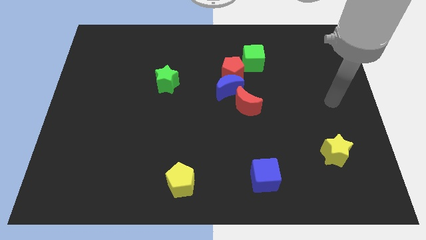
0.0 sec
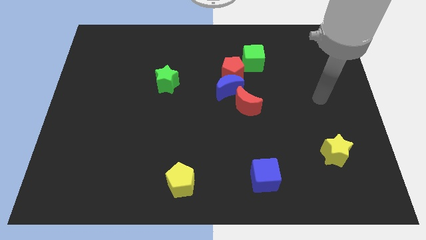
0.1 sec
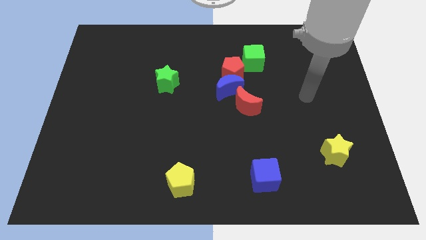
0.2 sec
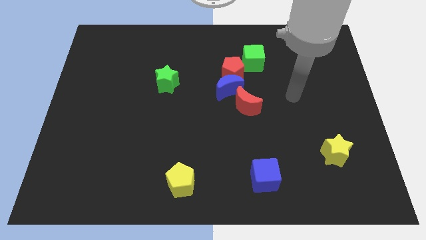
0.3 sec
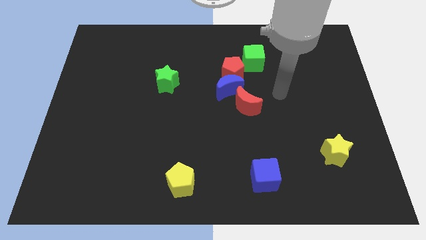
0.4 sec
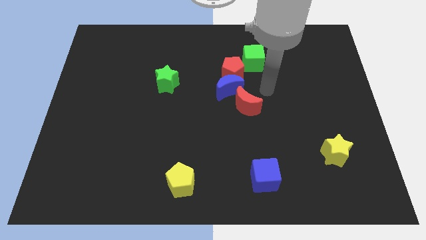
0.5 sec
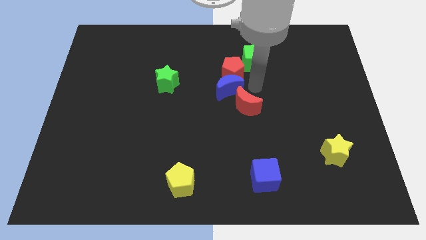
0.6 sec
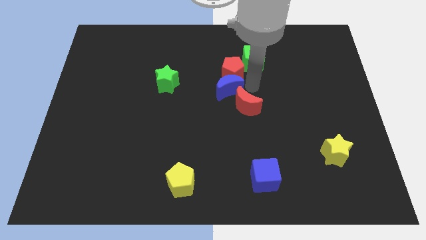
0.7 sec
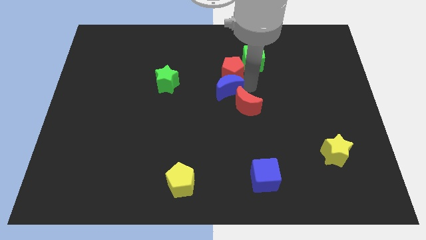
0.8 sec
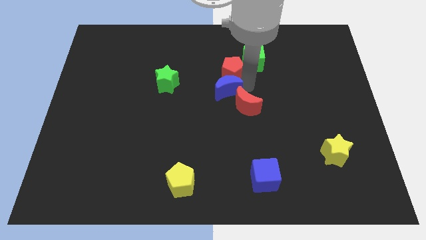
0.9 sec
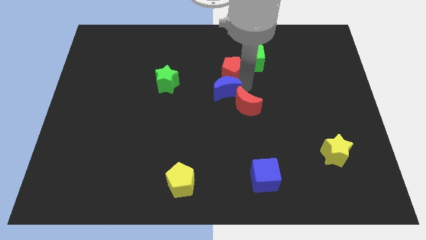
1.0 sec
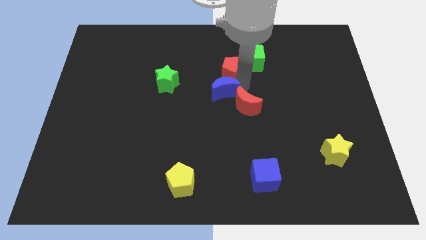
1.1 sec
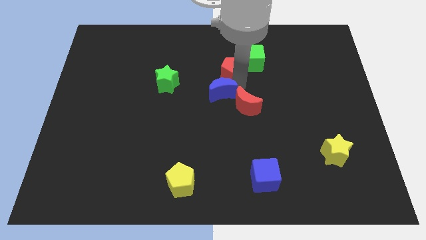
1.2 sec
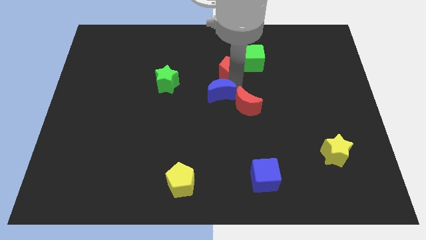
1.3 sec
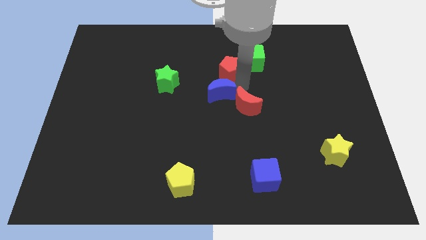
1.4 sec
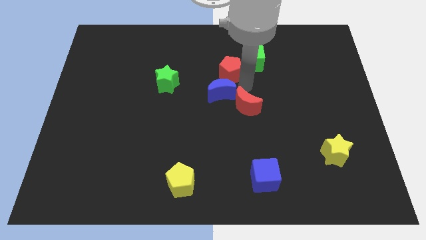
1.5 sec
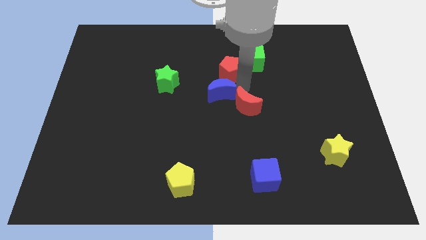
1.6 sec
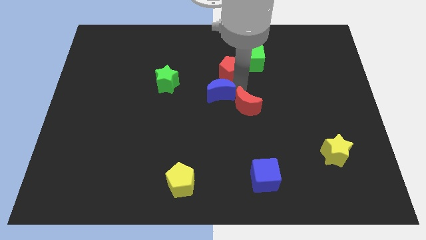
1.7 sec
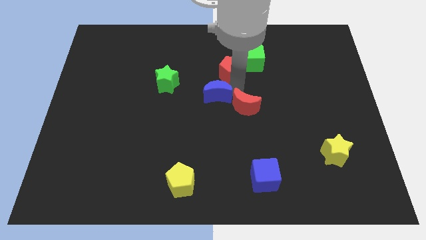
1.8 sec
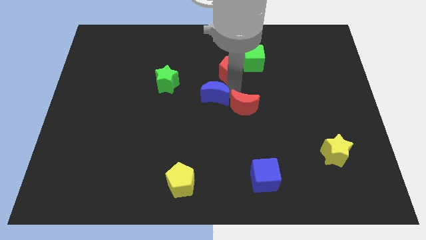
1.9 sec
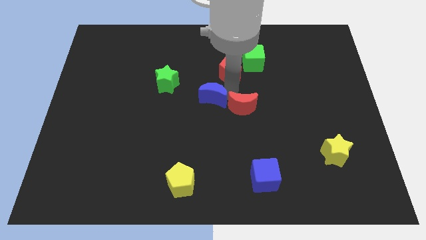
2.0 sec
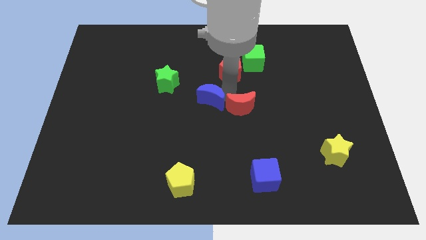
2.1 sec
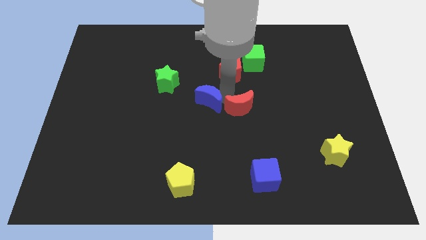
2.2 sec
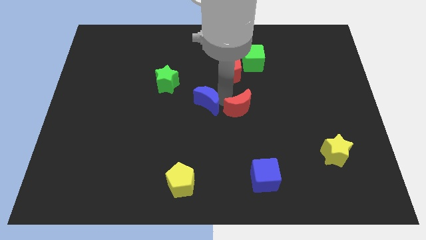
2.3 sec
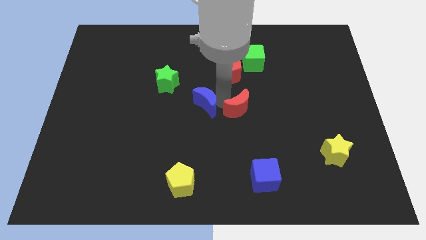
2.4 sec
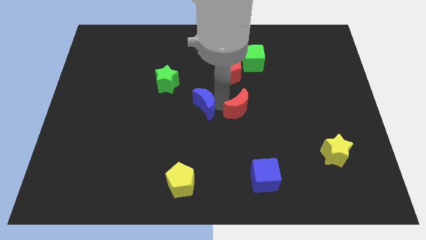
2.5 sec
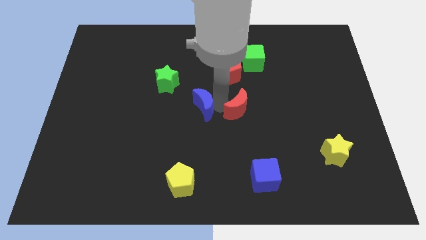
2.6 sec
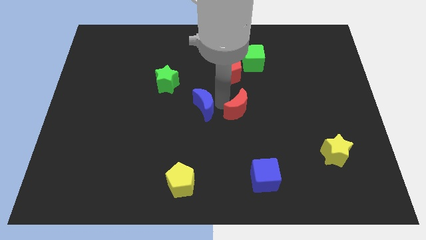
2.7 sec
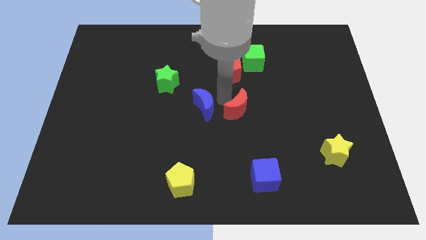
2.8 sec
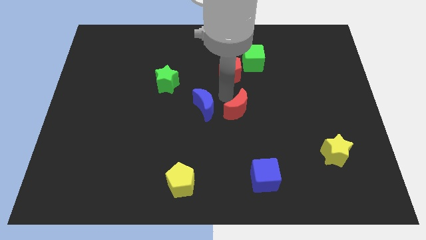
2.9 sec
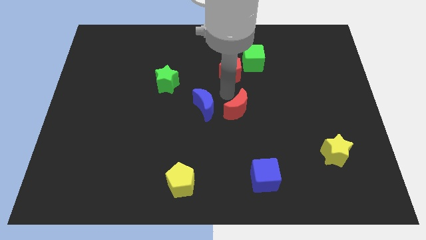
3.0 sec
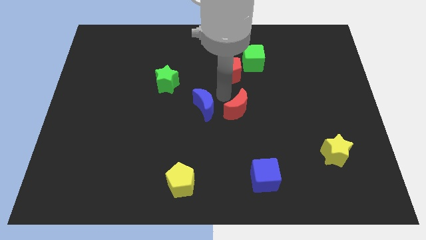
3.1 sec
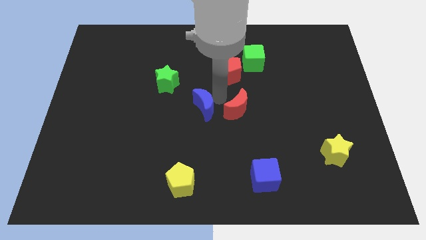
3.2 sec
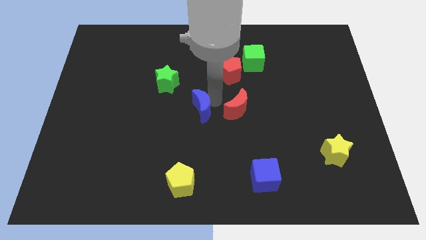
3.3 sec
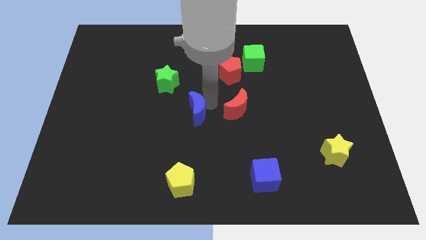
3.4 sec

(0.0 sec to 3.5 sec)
separate the blue moon from the red pentagon and red moon

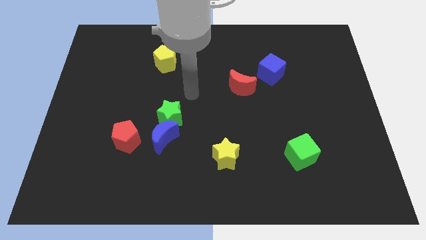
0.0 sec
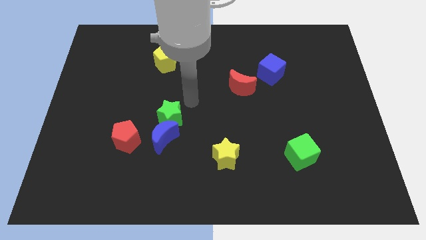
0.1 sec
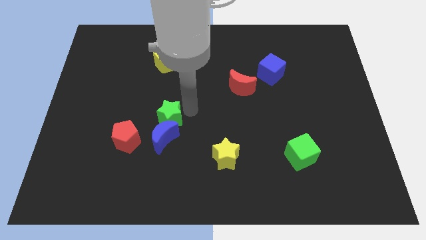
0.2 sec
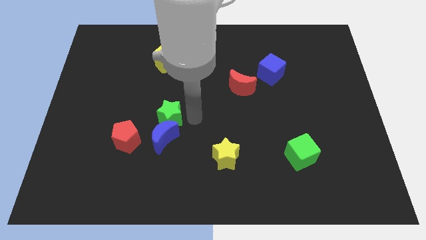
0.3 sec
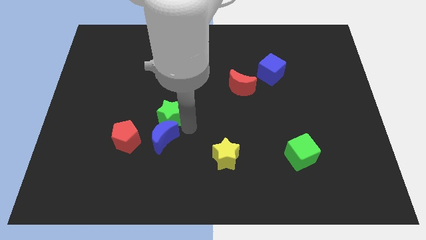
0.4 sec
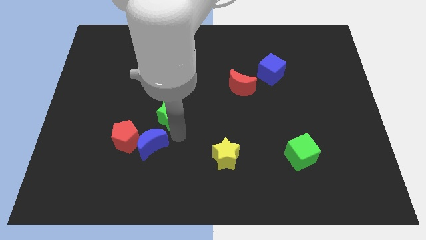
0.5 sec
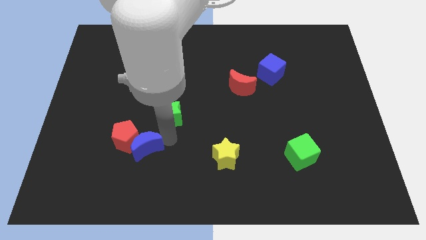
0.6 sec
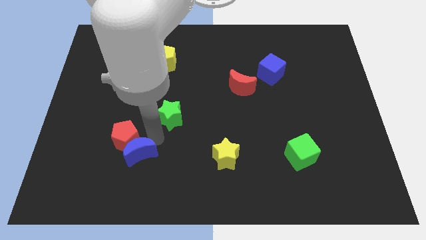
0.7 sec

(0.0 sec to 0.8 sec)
pull the green star apart from the blue moon

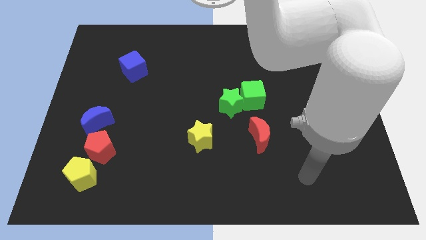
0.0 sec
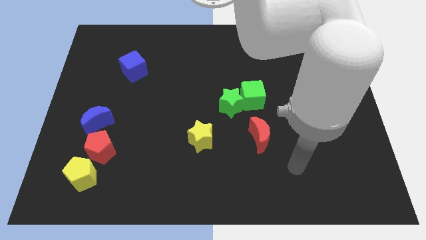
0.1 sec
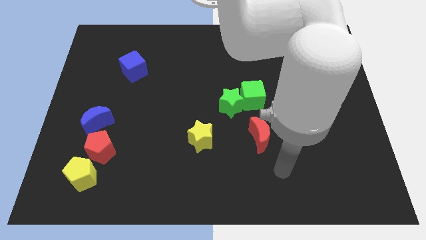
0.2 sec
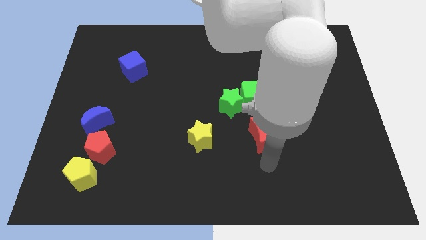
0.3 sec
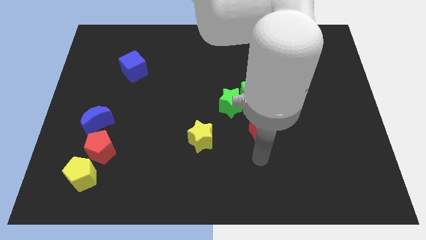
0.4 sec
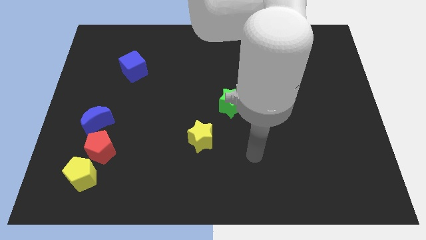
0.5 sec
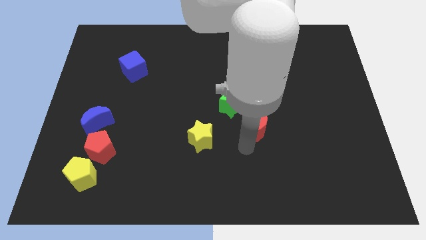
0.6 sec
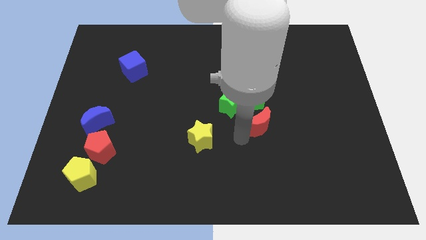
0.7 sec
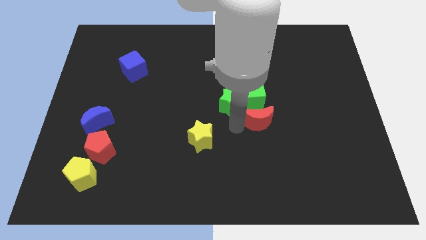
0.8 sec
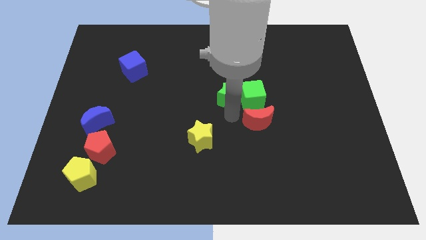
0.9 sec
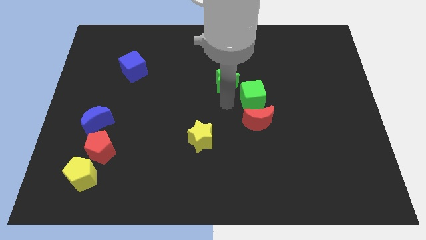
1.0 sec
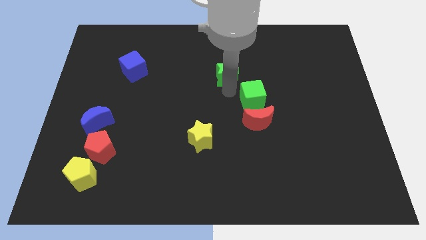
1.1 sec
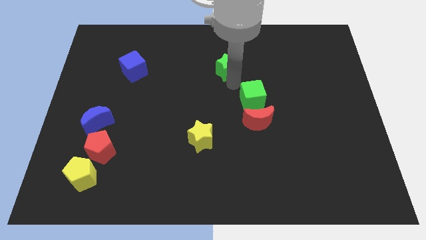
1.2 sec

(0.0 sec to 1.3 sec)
separate the green cube from the green star

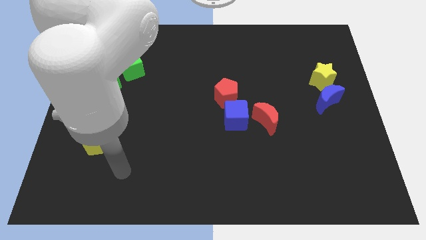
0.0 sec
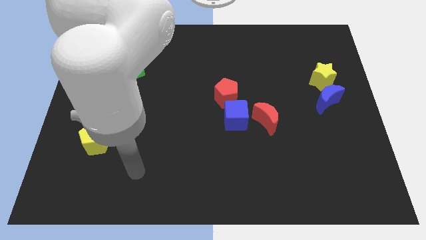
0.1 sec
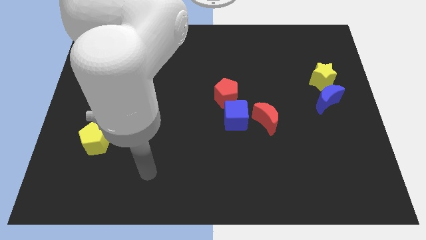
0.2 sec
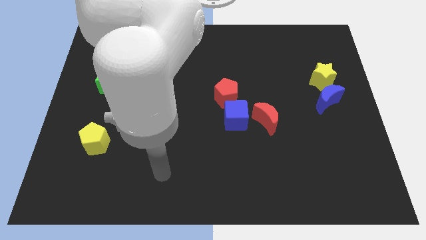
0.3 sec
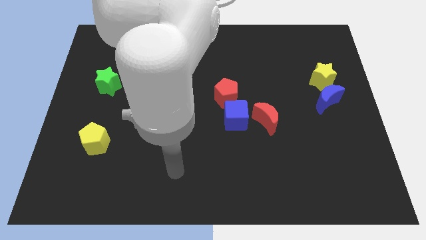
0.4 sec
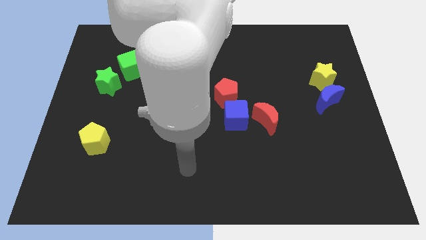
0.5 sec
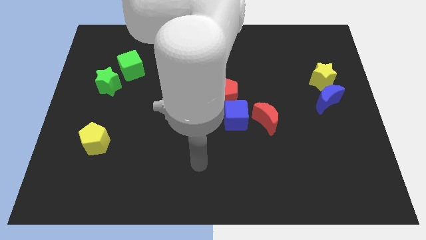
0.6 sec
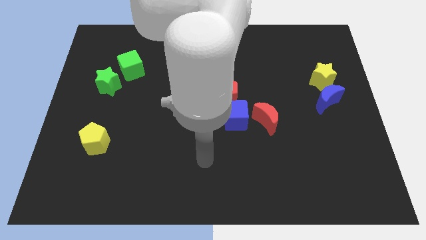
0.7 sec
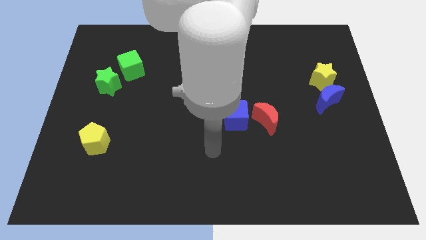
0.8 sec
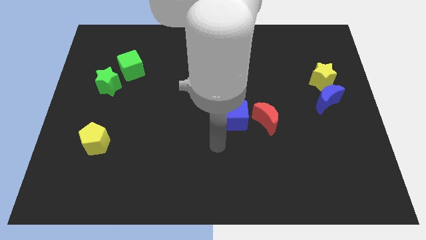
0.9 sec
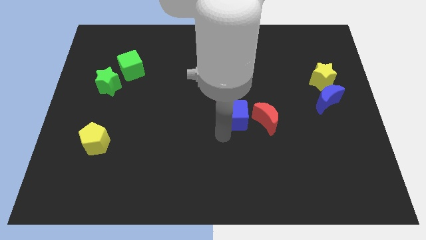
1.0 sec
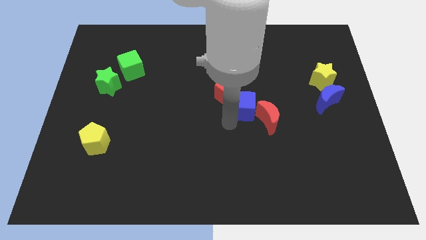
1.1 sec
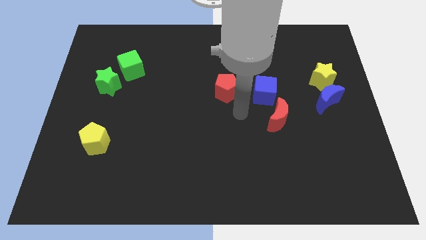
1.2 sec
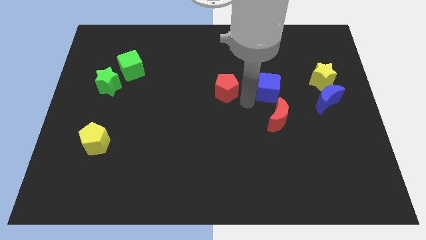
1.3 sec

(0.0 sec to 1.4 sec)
pull the red pentagon apart from the blue cube

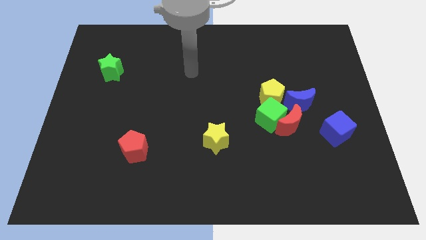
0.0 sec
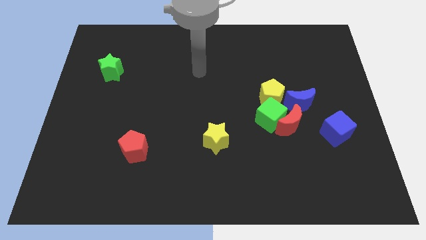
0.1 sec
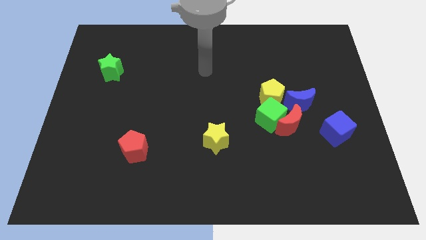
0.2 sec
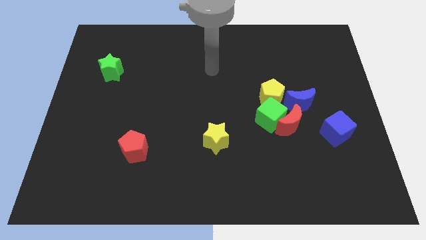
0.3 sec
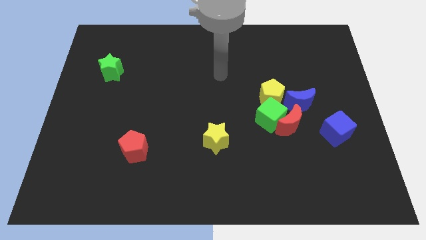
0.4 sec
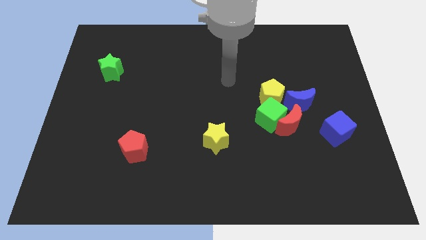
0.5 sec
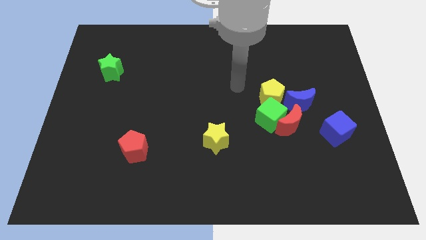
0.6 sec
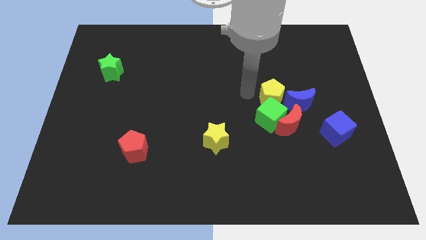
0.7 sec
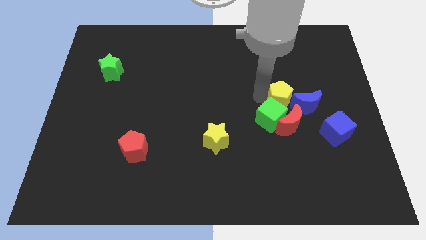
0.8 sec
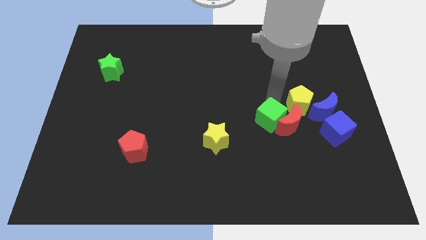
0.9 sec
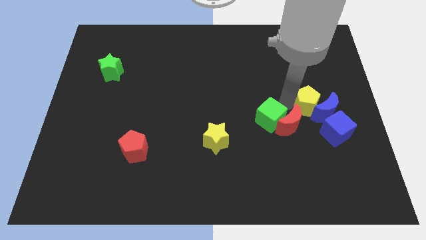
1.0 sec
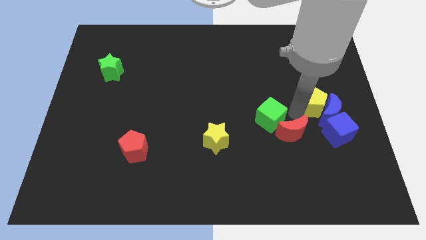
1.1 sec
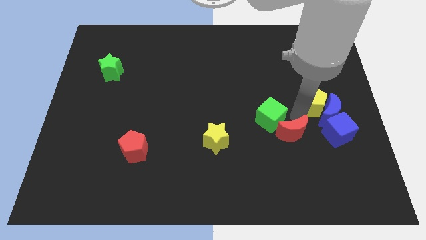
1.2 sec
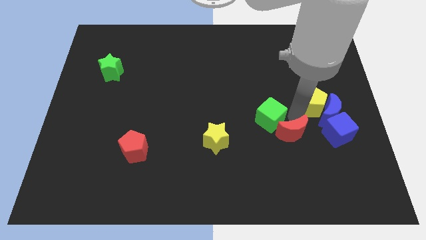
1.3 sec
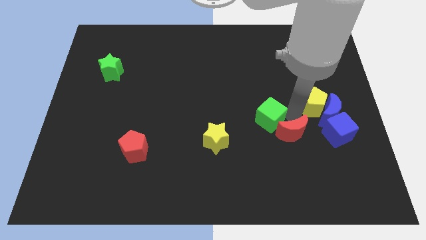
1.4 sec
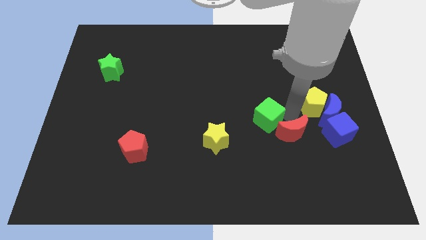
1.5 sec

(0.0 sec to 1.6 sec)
pull the green cube apart from the red moon, yellow pentagon, and blue moon

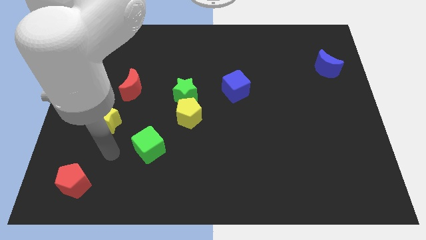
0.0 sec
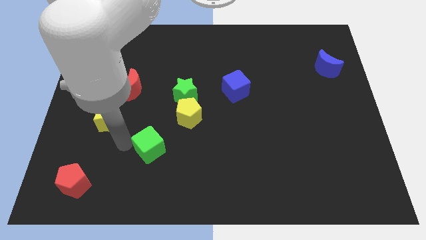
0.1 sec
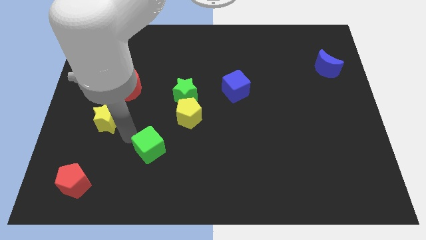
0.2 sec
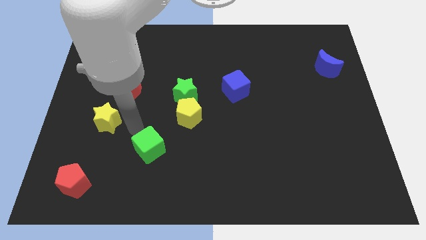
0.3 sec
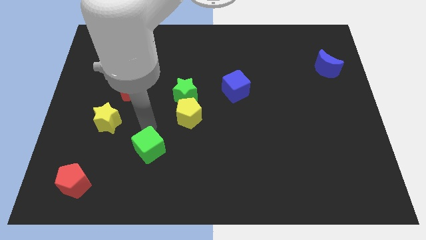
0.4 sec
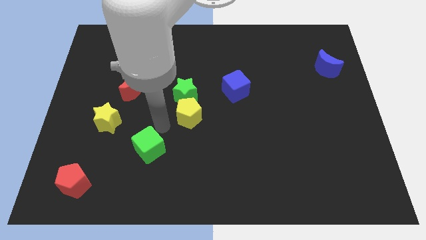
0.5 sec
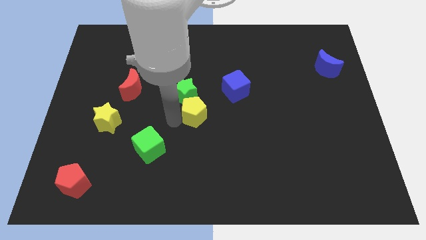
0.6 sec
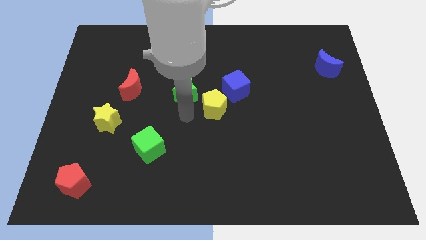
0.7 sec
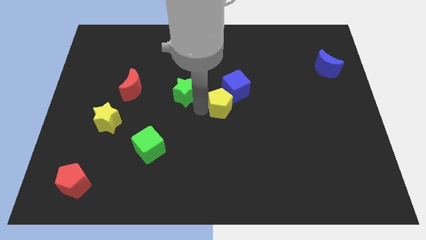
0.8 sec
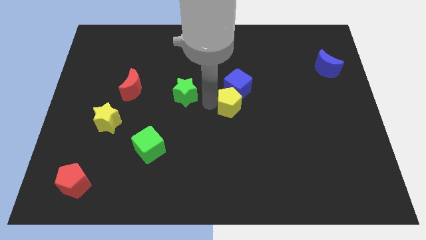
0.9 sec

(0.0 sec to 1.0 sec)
move the green star away from the yellow pentagon
